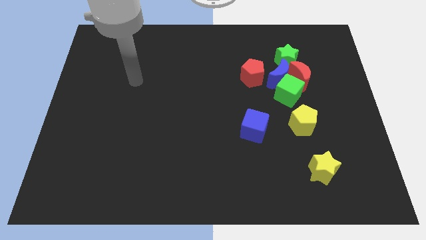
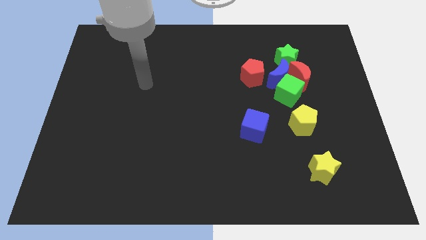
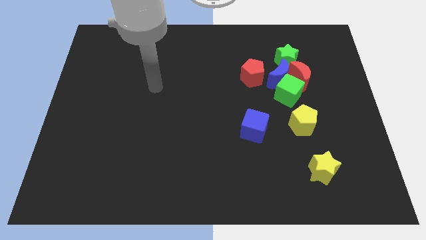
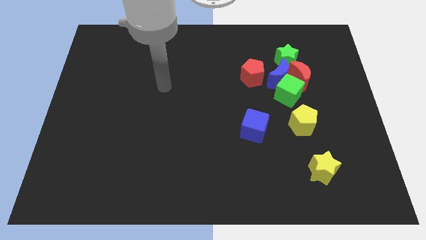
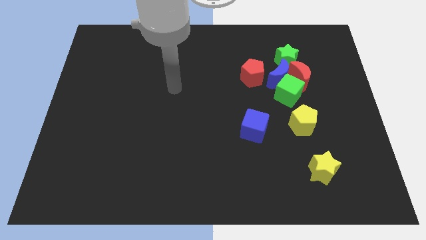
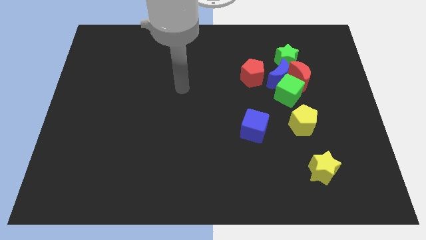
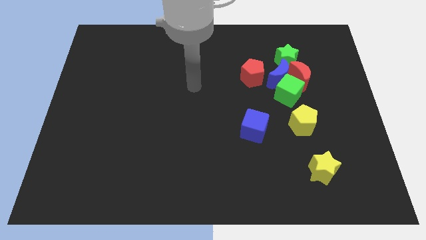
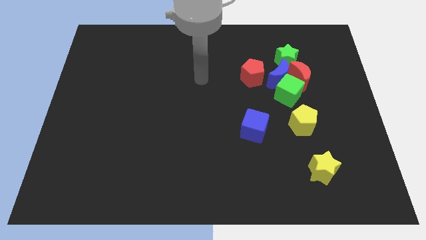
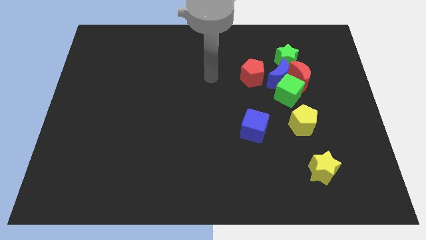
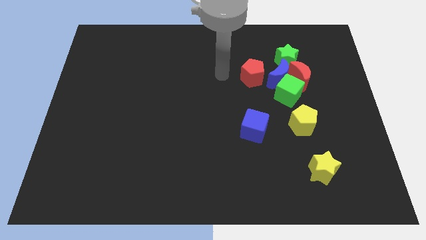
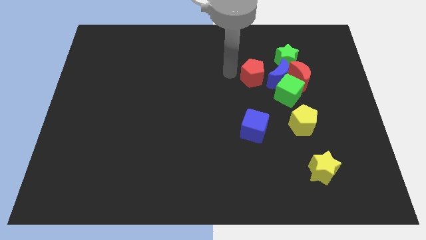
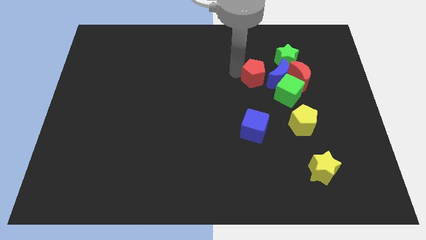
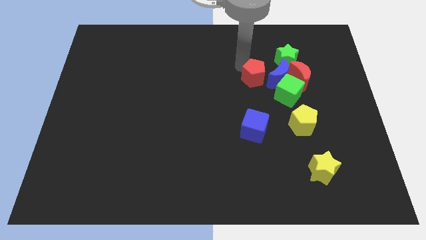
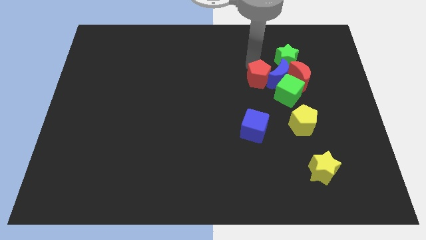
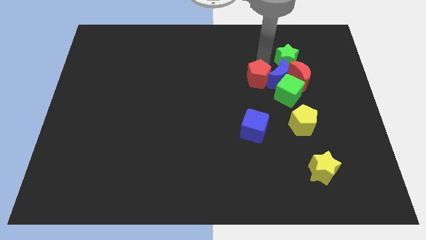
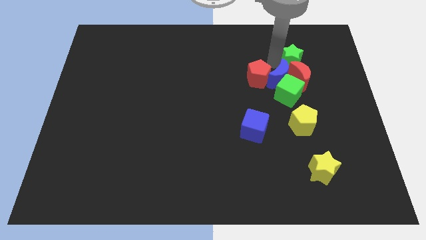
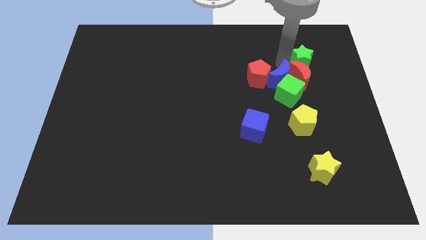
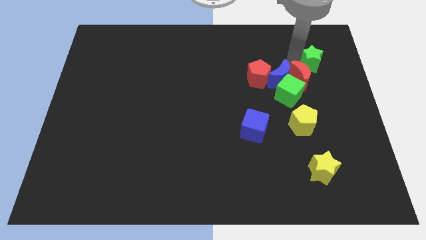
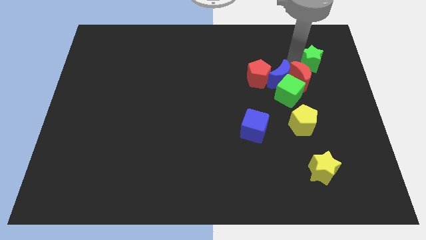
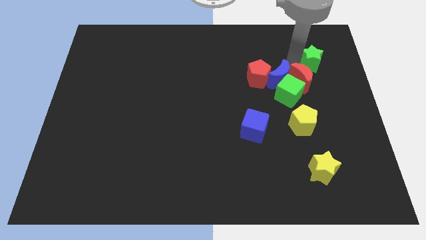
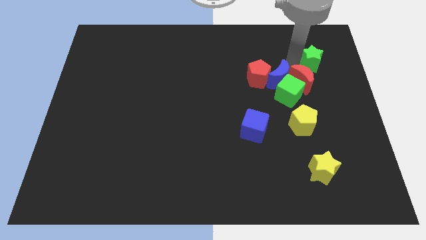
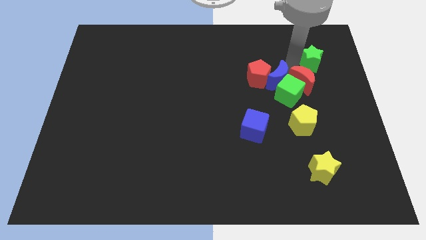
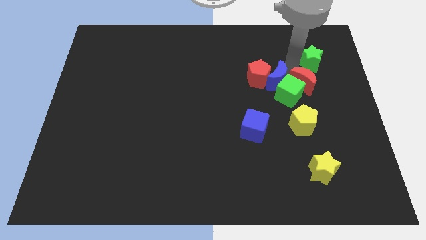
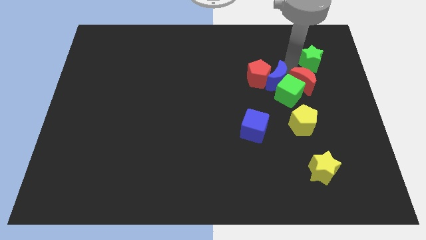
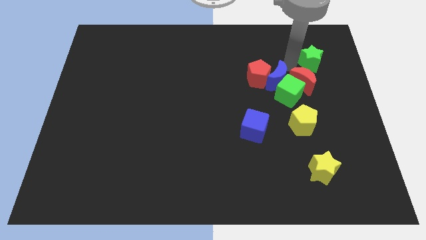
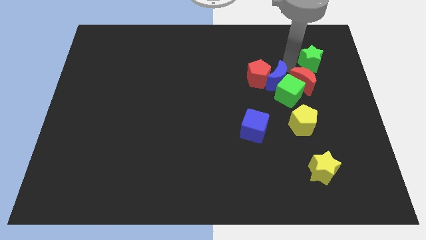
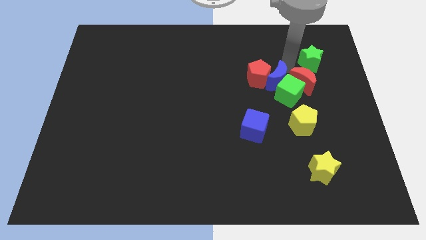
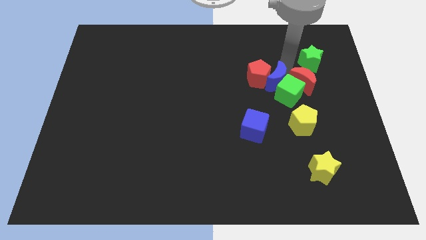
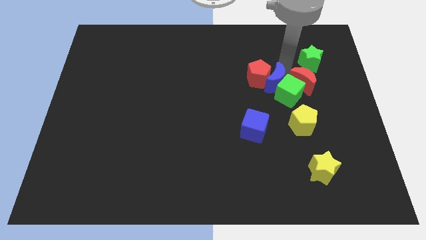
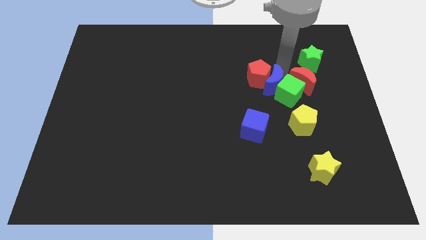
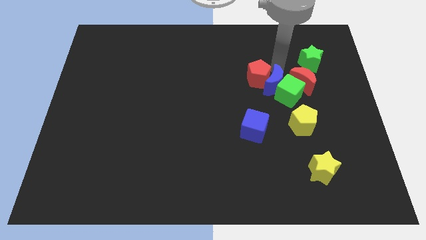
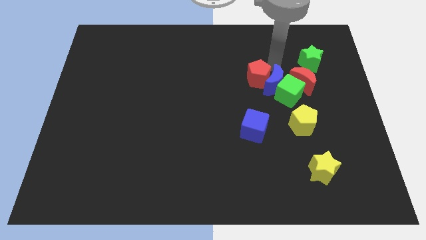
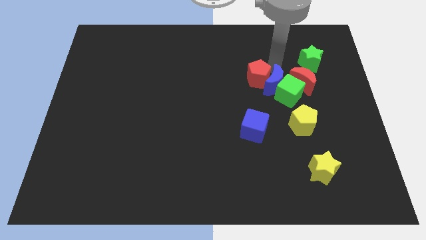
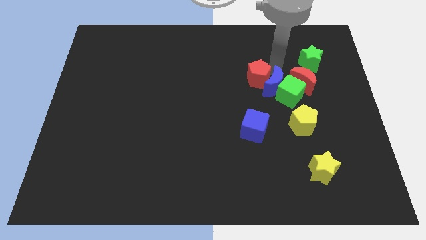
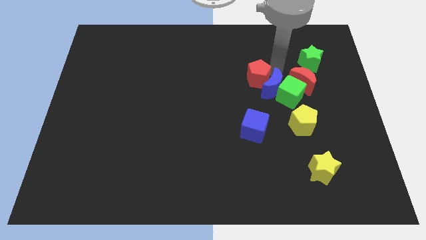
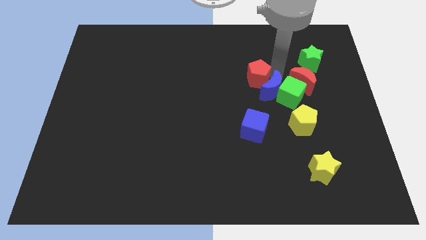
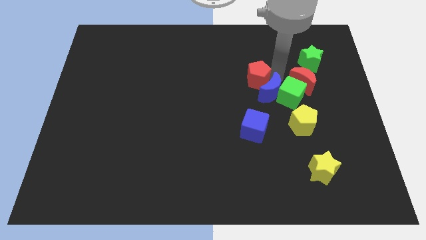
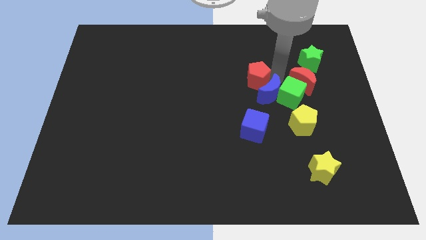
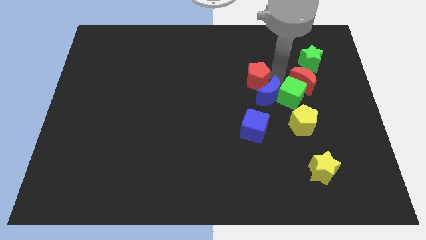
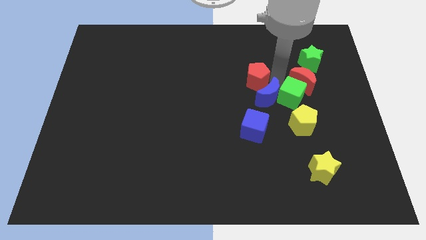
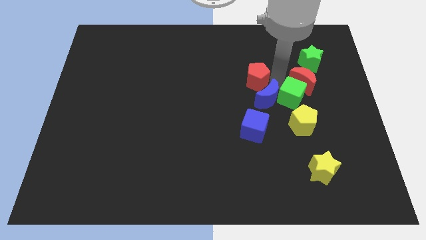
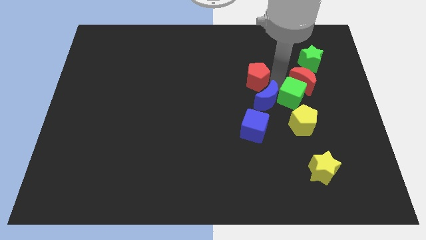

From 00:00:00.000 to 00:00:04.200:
move the blue moon downwards a little

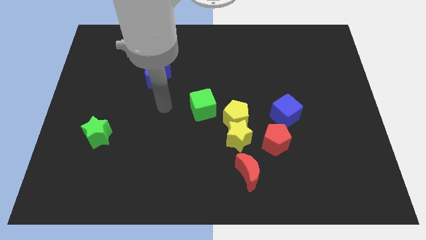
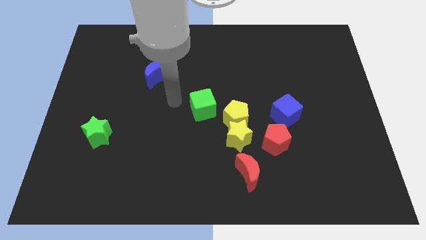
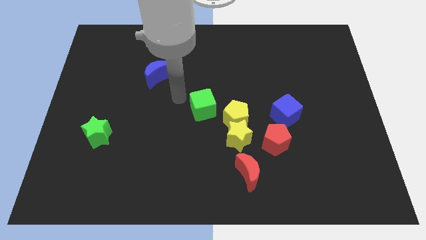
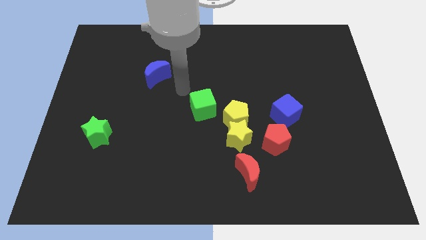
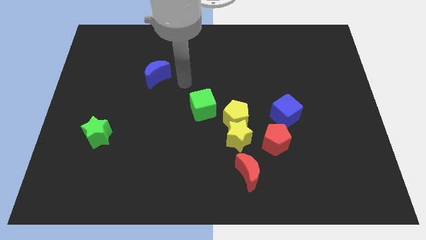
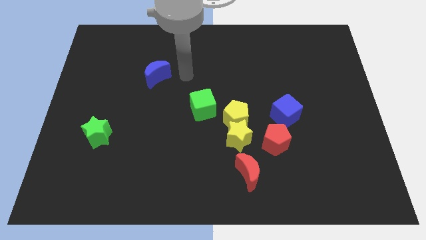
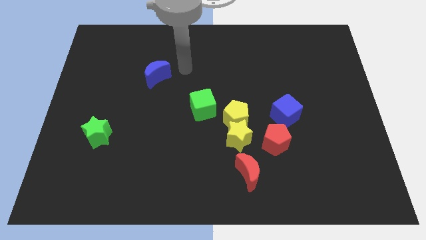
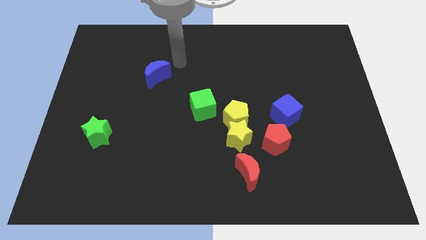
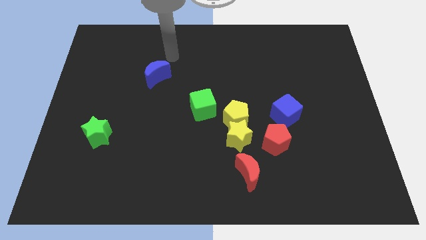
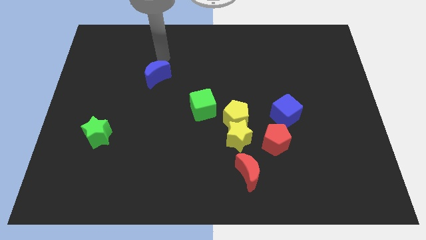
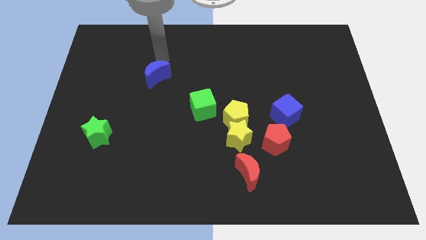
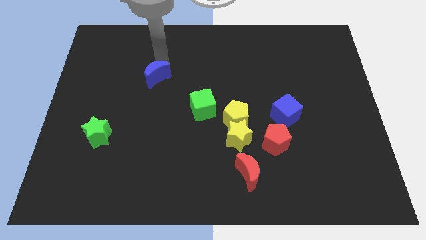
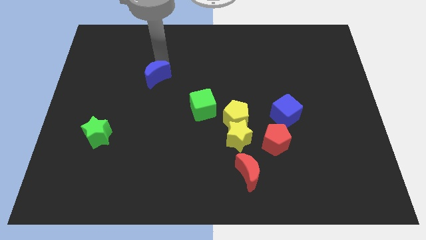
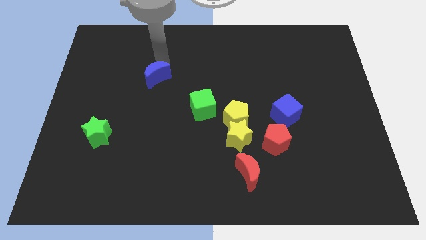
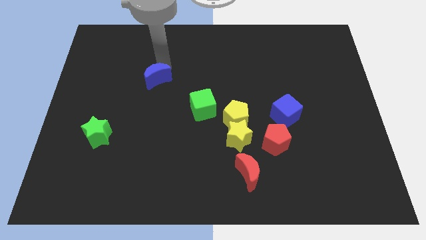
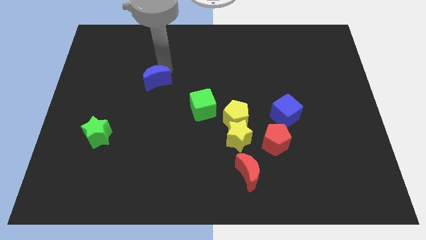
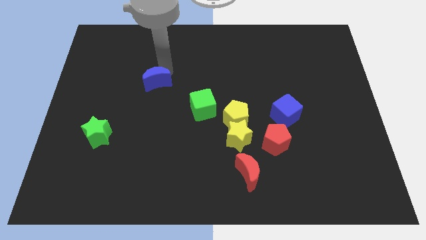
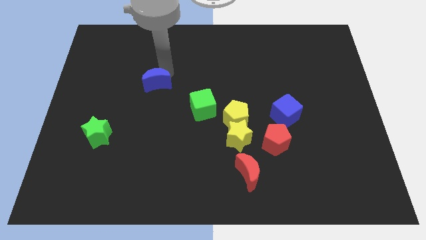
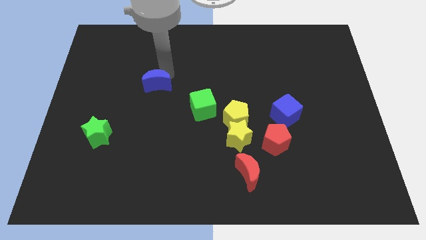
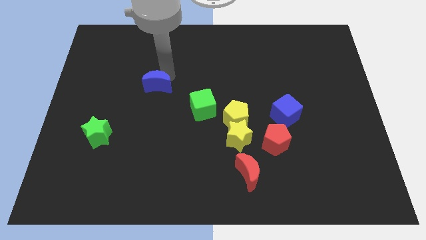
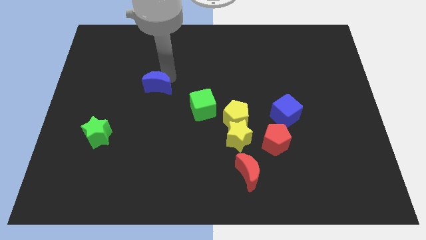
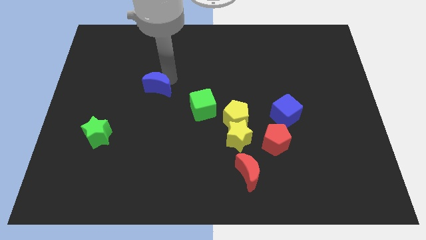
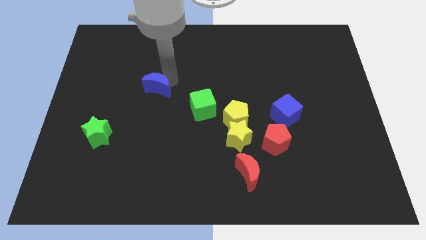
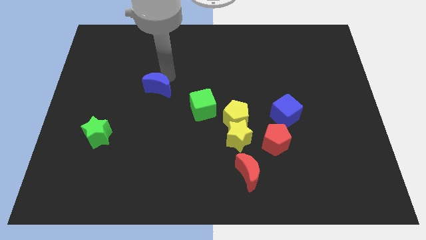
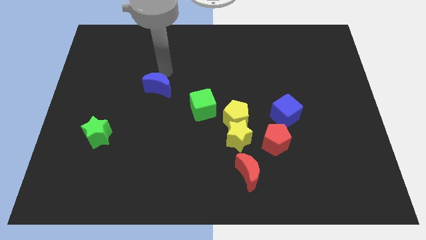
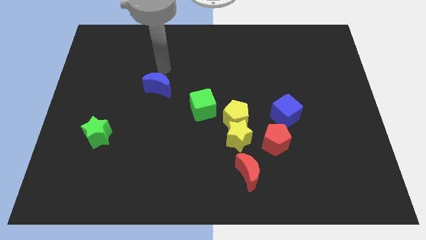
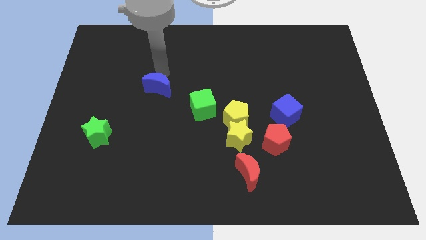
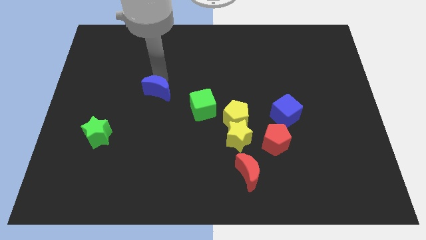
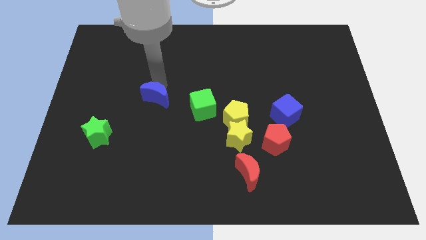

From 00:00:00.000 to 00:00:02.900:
slide the blue moon downwards a little

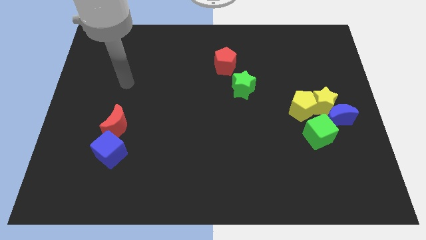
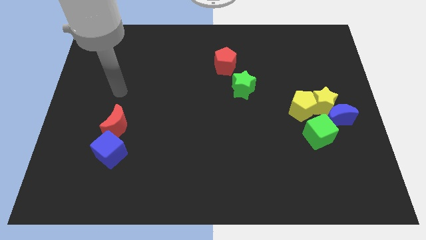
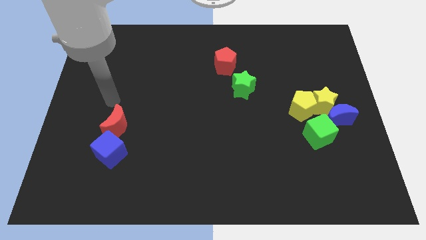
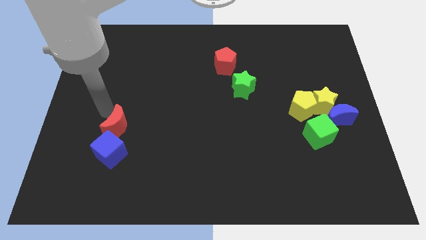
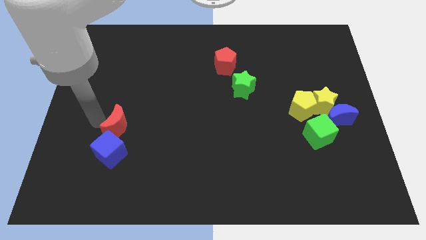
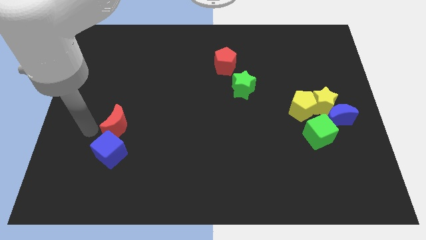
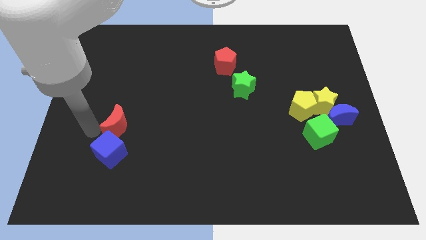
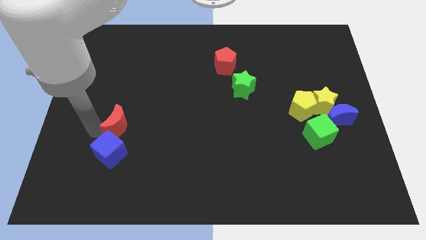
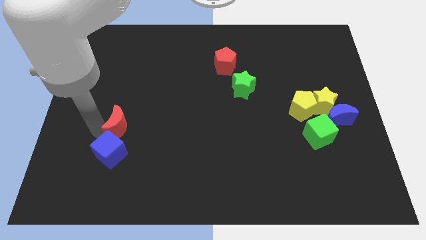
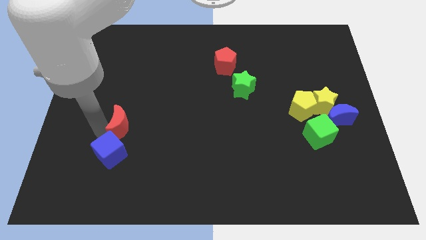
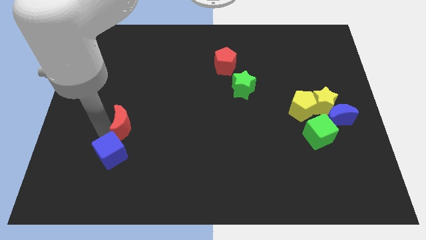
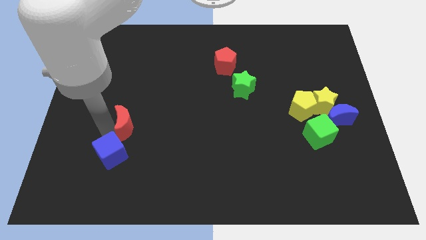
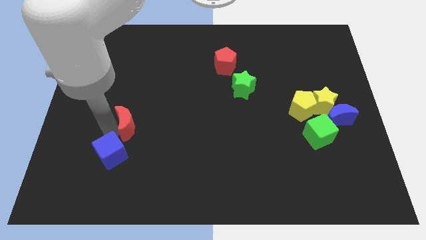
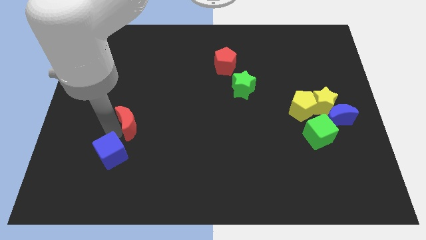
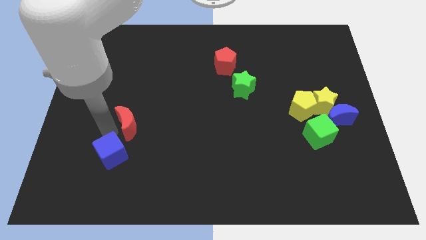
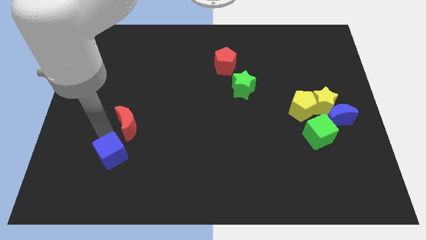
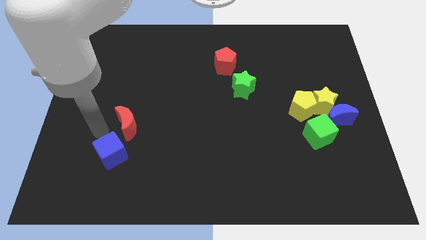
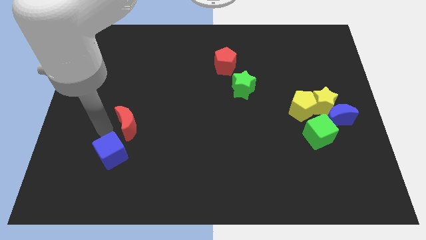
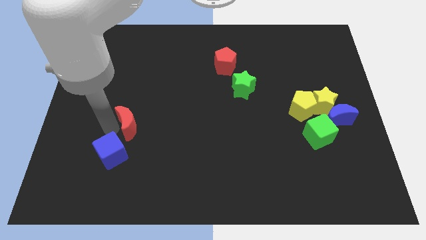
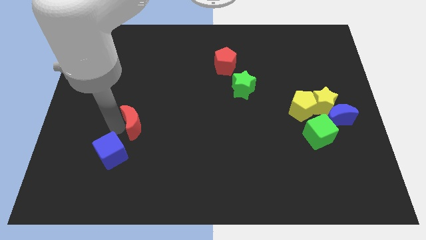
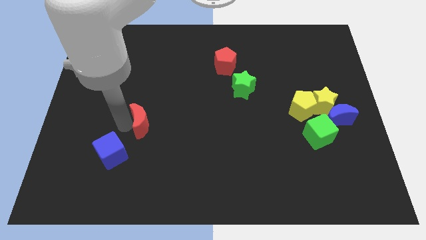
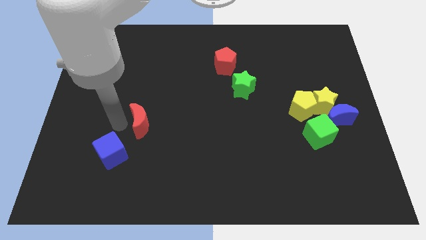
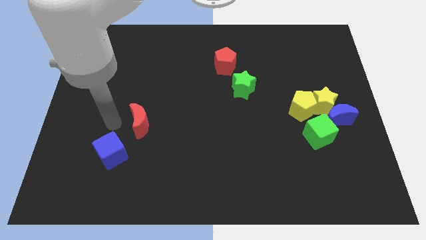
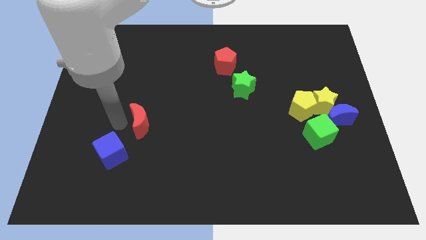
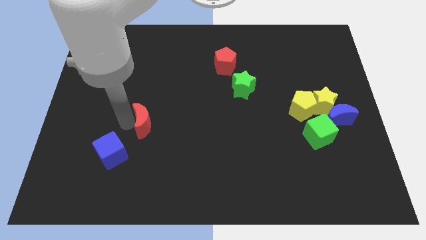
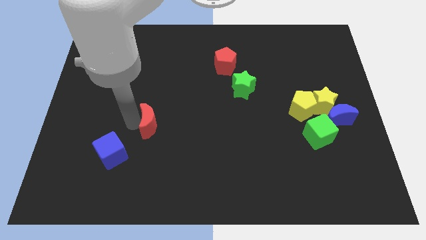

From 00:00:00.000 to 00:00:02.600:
slightly move the red moon to the right
